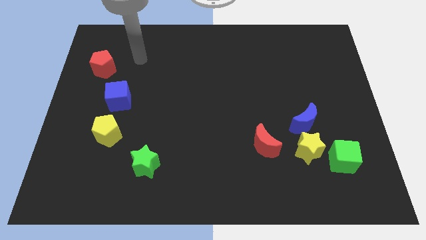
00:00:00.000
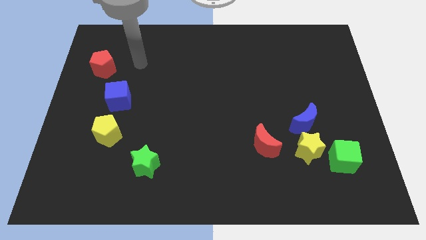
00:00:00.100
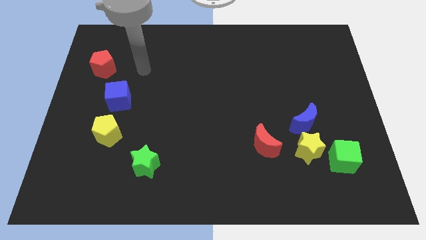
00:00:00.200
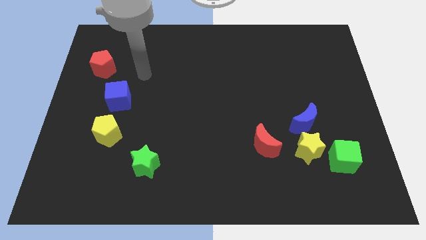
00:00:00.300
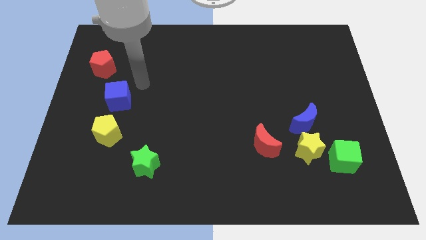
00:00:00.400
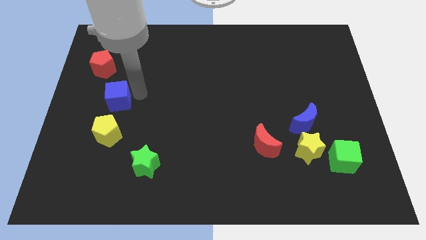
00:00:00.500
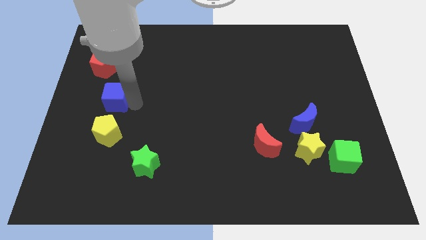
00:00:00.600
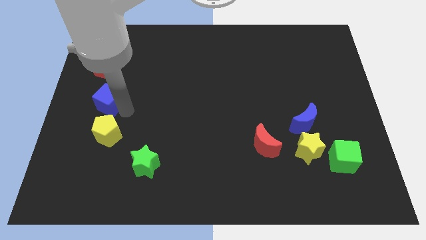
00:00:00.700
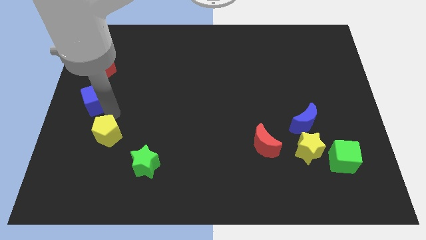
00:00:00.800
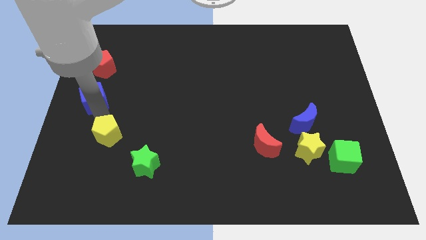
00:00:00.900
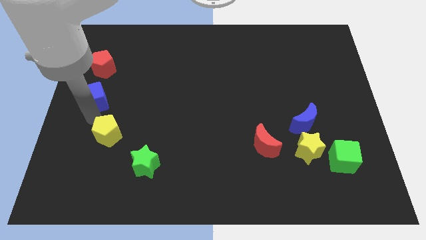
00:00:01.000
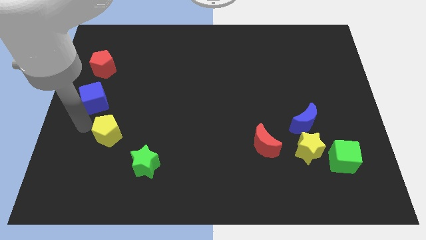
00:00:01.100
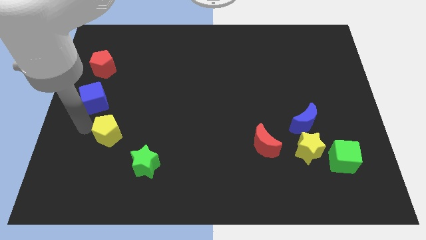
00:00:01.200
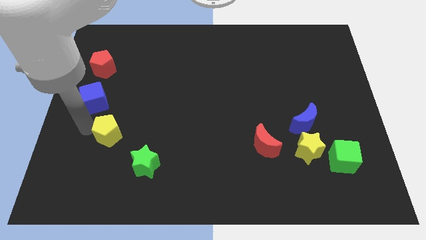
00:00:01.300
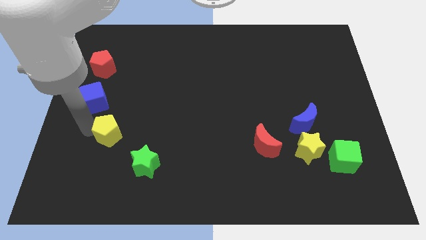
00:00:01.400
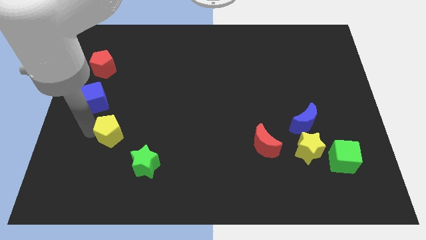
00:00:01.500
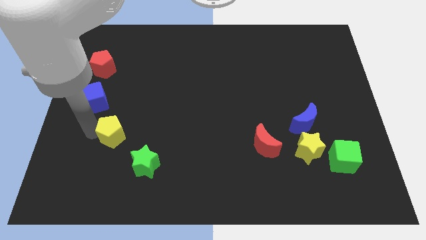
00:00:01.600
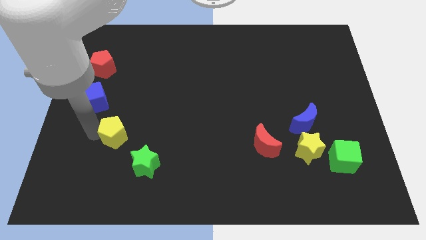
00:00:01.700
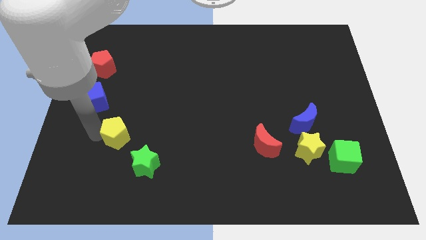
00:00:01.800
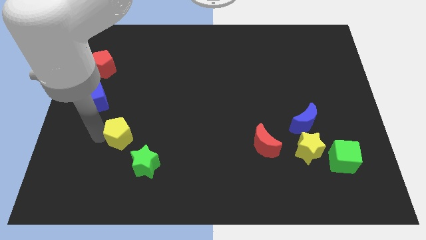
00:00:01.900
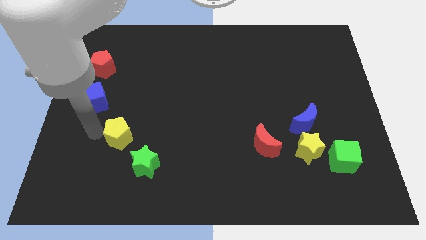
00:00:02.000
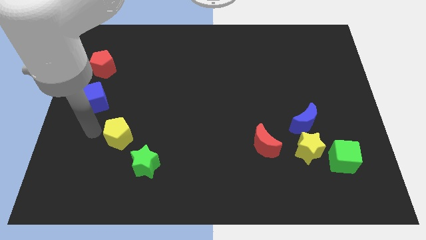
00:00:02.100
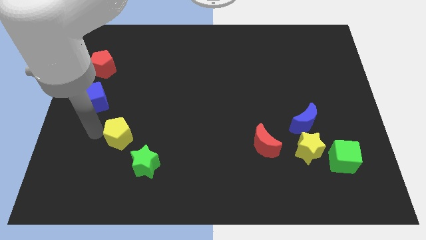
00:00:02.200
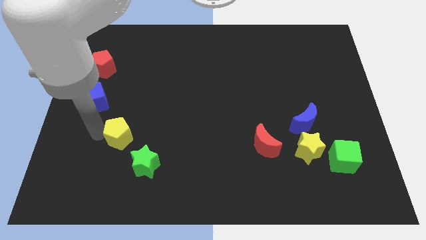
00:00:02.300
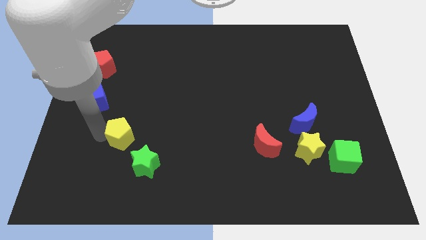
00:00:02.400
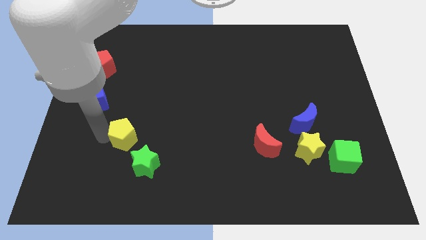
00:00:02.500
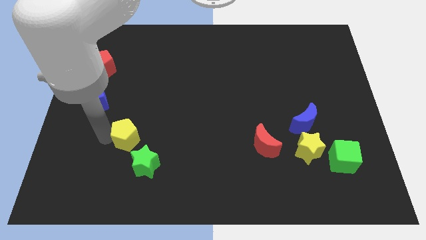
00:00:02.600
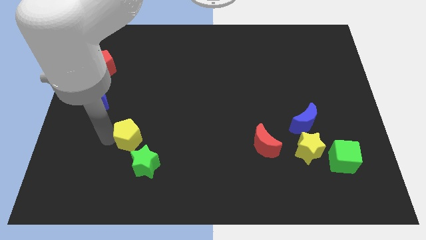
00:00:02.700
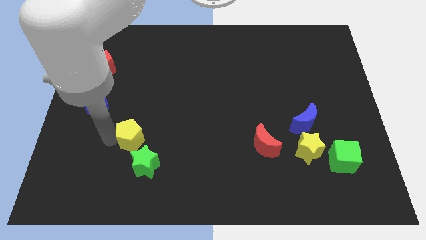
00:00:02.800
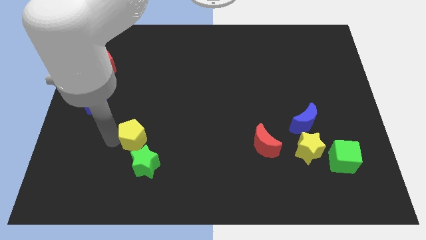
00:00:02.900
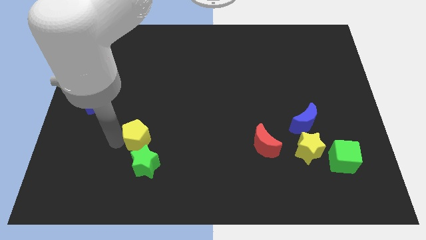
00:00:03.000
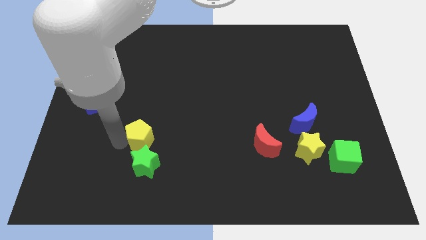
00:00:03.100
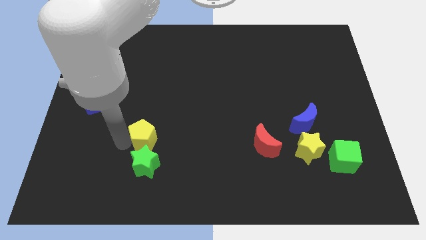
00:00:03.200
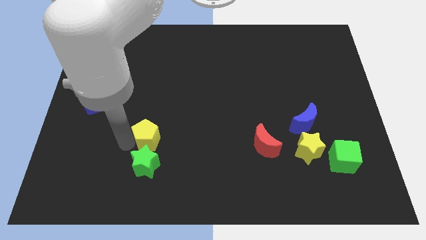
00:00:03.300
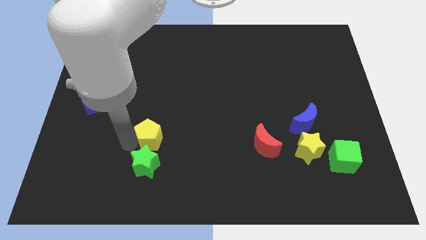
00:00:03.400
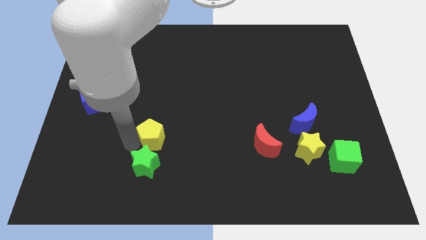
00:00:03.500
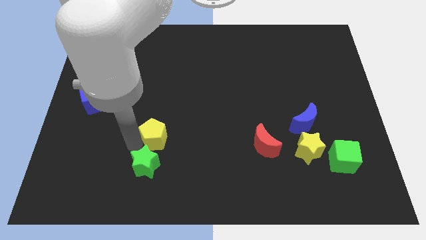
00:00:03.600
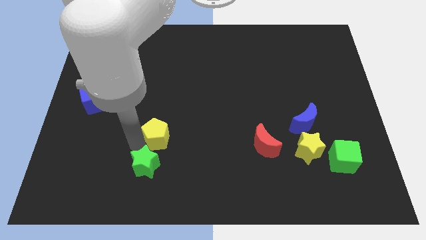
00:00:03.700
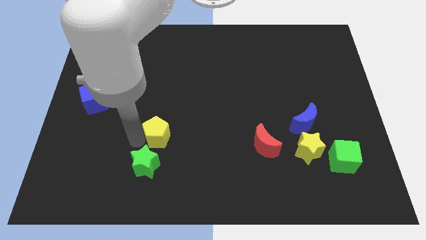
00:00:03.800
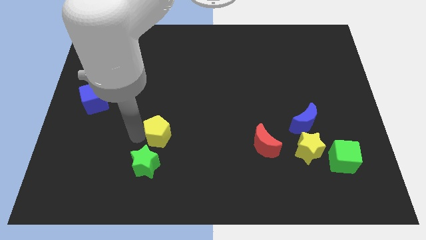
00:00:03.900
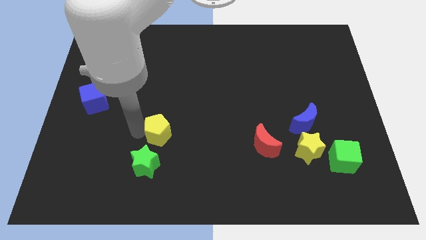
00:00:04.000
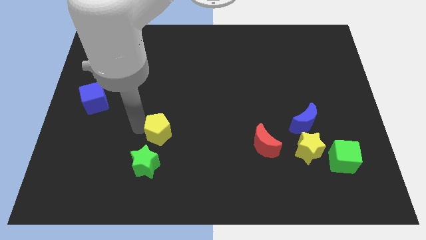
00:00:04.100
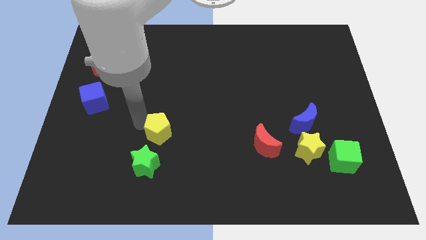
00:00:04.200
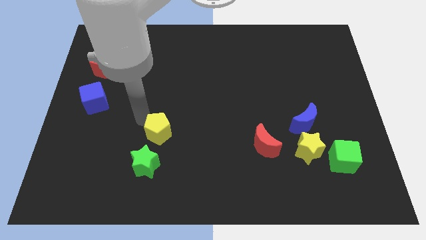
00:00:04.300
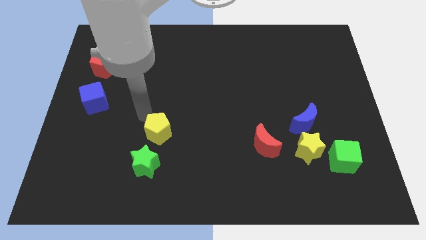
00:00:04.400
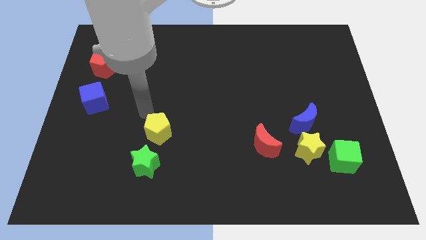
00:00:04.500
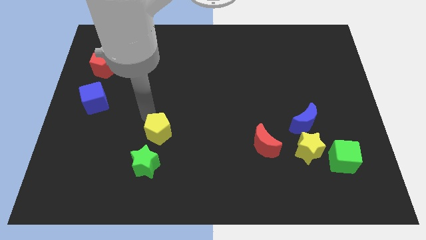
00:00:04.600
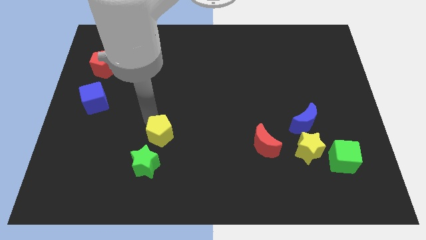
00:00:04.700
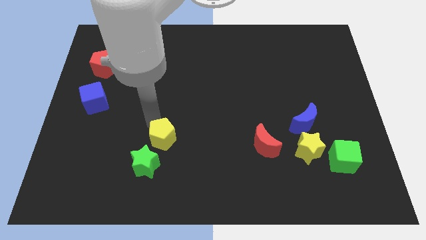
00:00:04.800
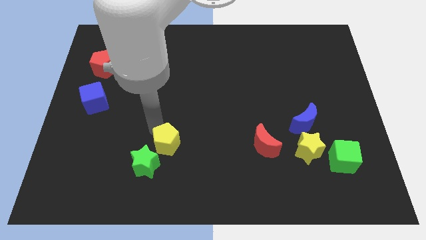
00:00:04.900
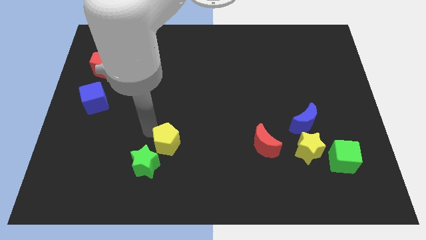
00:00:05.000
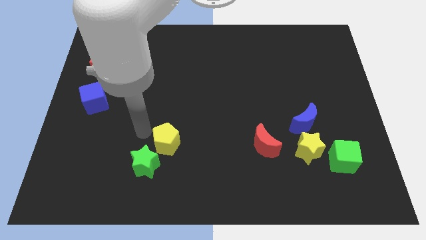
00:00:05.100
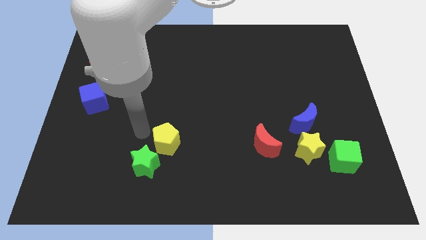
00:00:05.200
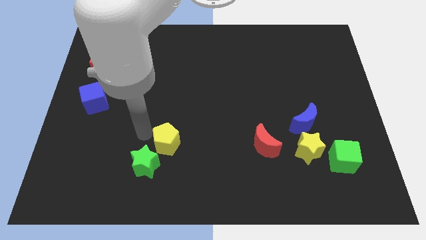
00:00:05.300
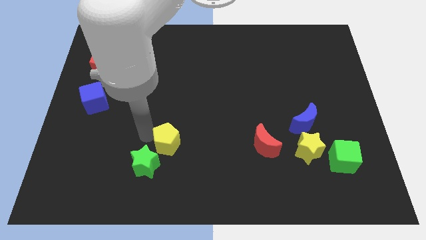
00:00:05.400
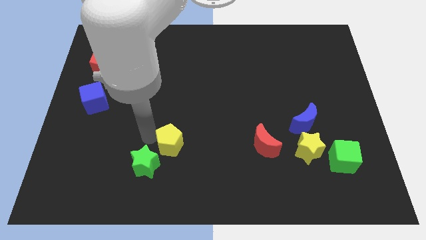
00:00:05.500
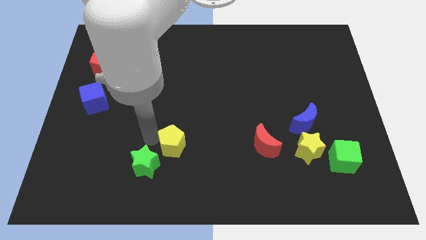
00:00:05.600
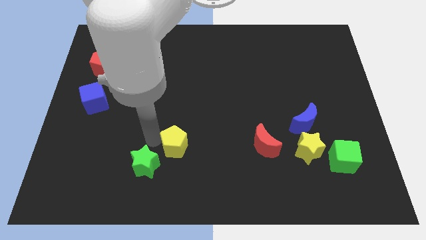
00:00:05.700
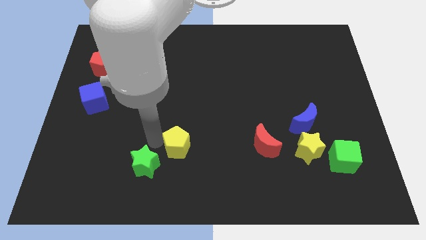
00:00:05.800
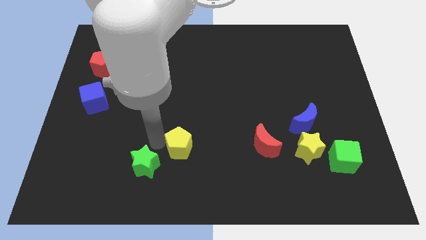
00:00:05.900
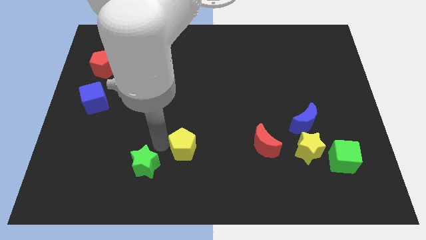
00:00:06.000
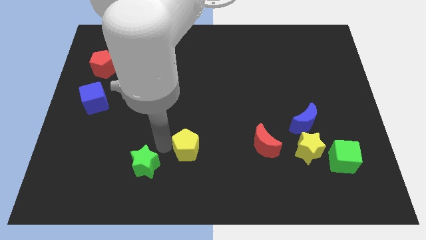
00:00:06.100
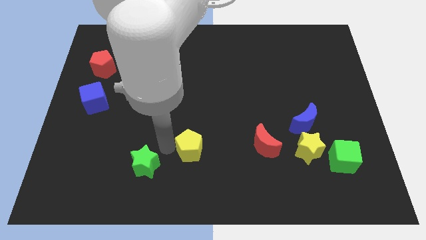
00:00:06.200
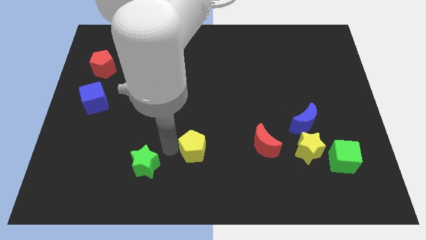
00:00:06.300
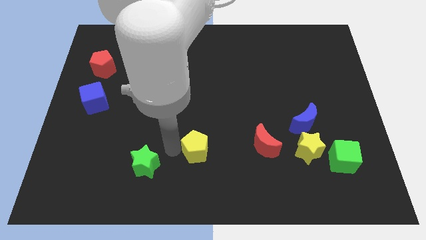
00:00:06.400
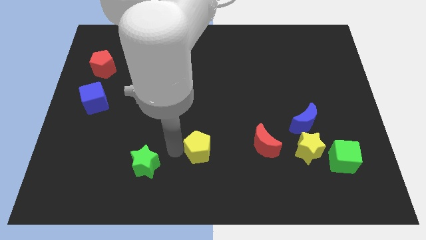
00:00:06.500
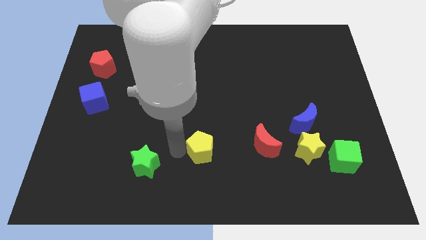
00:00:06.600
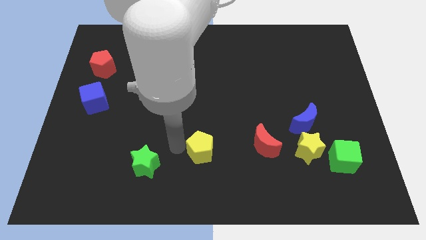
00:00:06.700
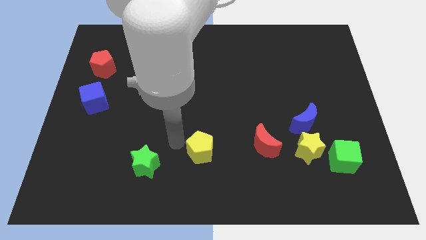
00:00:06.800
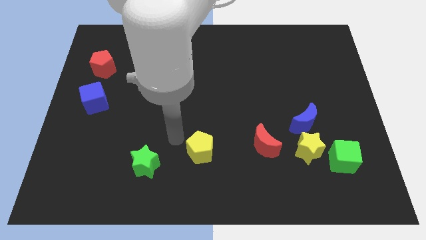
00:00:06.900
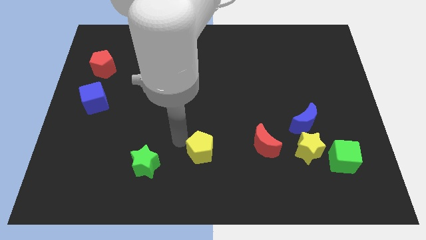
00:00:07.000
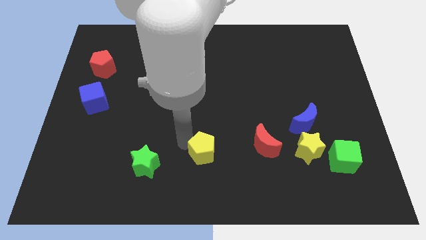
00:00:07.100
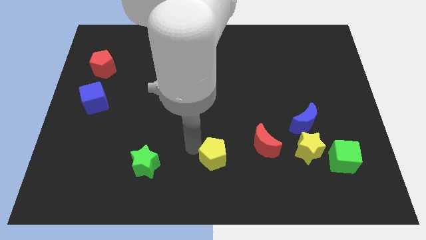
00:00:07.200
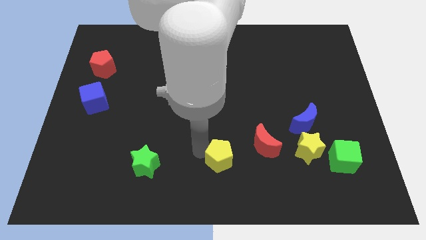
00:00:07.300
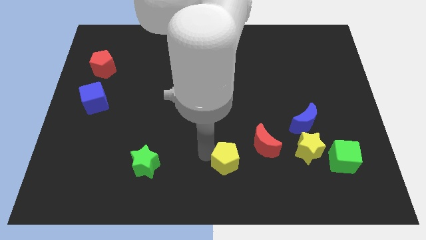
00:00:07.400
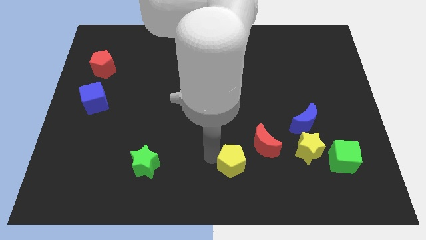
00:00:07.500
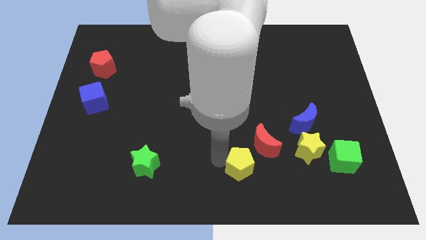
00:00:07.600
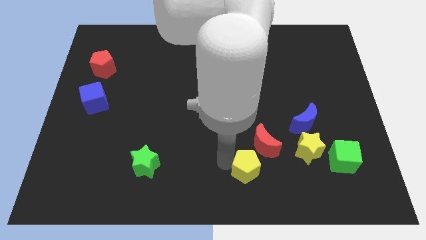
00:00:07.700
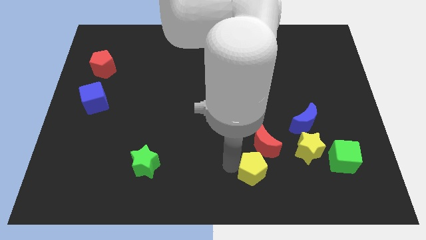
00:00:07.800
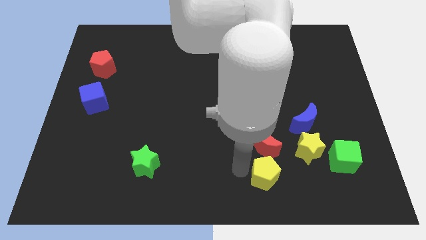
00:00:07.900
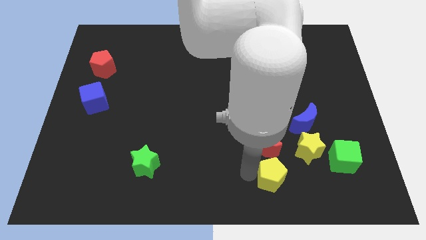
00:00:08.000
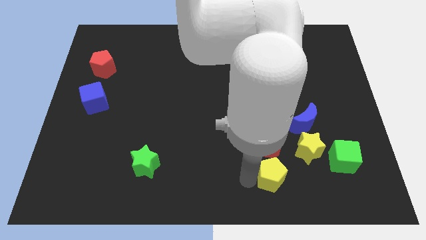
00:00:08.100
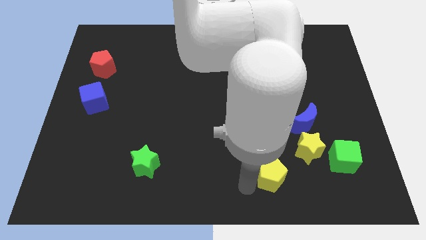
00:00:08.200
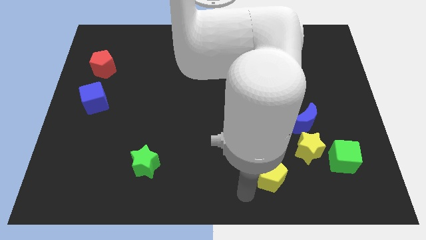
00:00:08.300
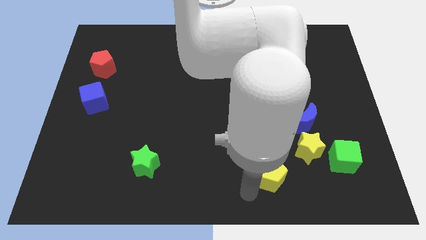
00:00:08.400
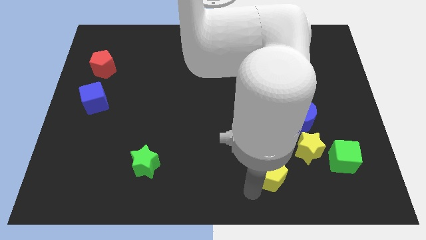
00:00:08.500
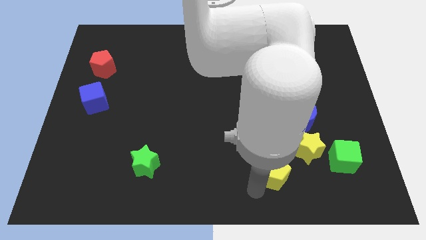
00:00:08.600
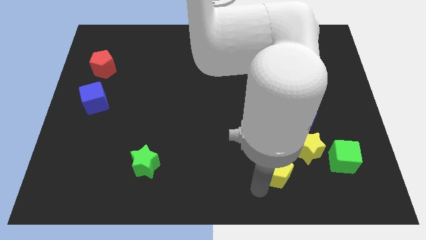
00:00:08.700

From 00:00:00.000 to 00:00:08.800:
slide the yellow pentagon left of the green cube
